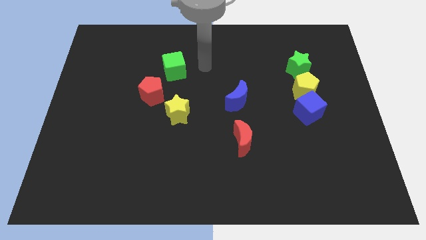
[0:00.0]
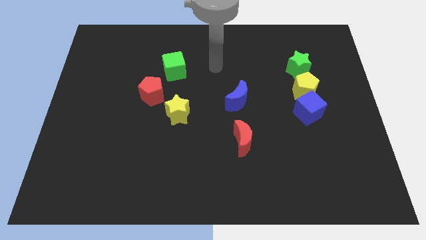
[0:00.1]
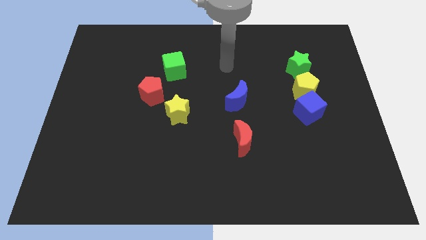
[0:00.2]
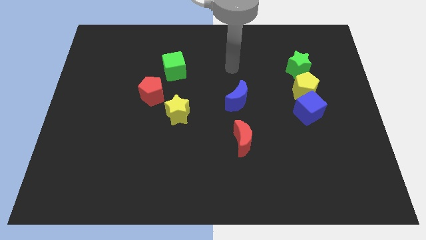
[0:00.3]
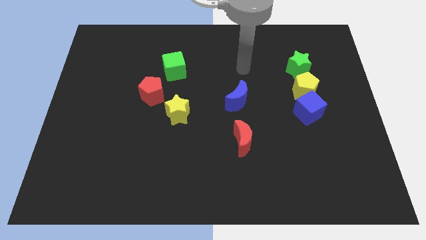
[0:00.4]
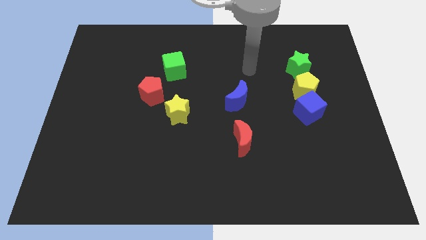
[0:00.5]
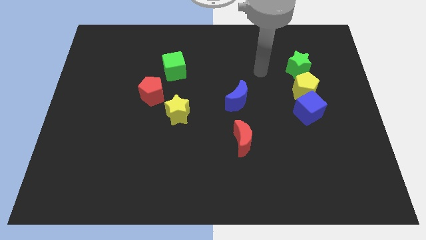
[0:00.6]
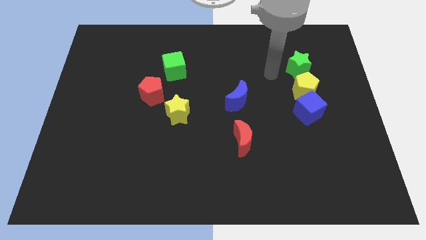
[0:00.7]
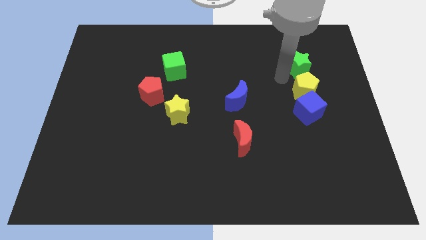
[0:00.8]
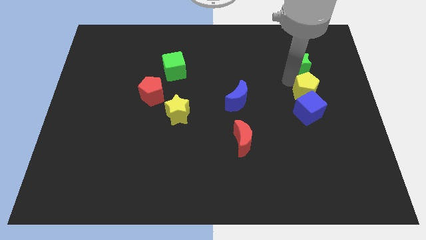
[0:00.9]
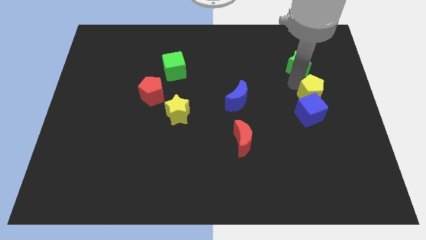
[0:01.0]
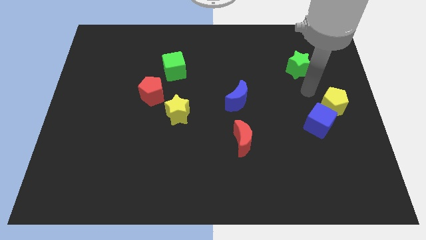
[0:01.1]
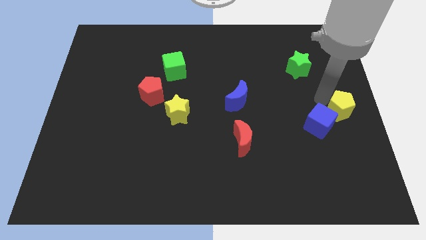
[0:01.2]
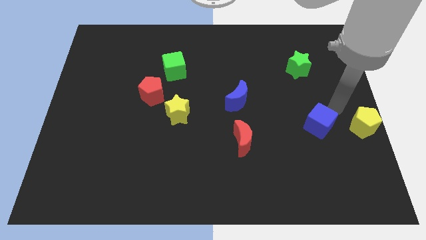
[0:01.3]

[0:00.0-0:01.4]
pull the blue cube apart from the yellow pentagon

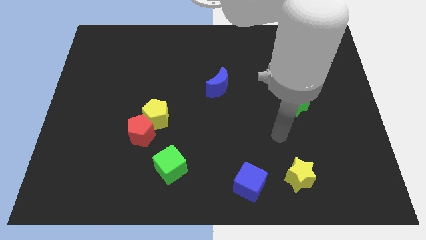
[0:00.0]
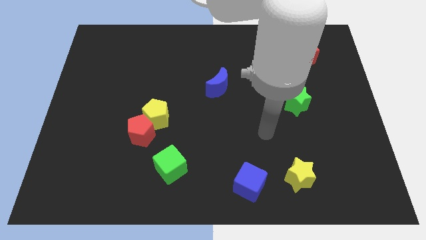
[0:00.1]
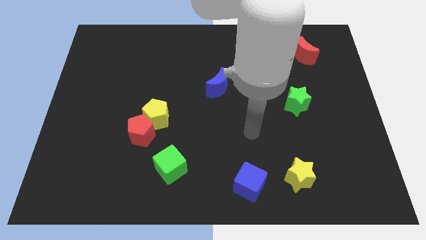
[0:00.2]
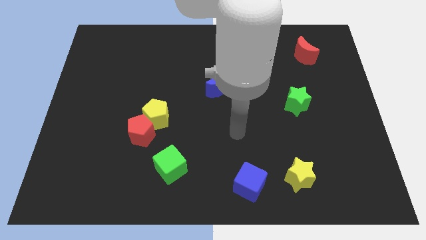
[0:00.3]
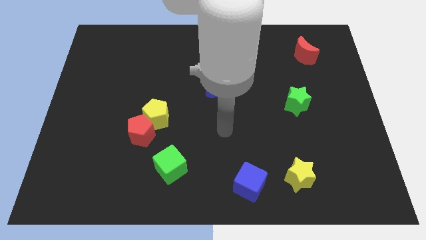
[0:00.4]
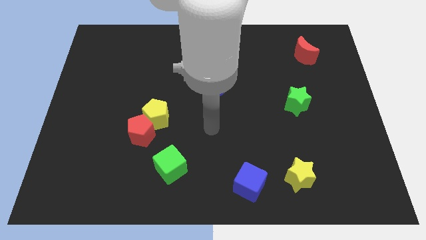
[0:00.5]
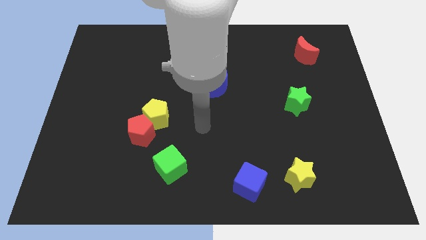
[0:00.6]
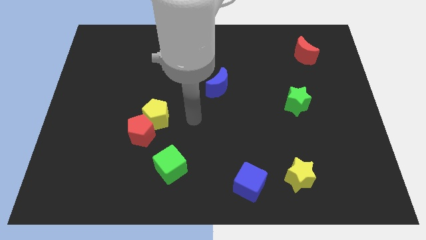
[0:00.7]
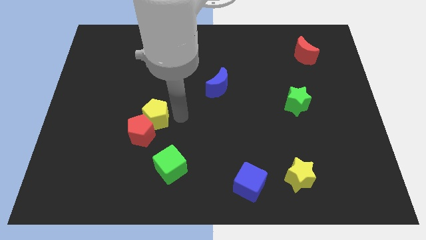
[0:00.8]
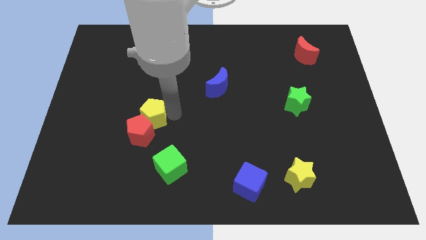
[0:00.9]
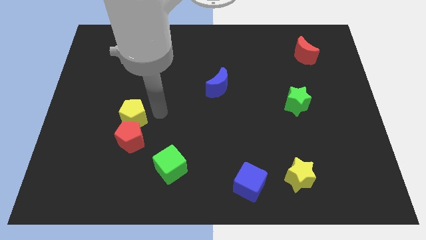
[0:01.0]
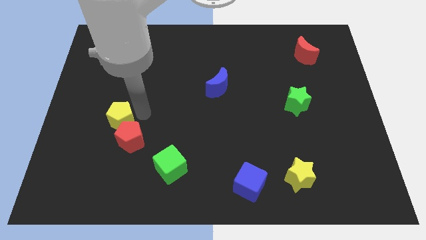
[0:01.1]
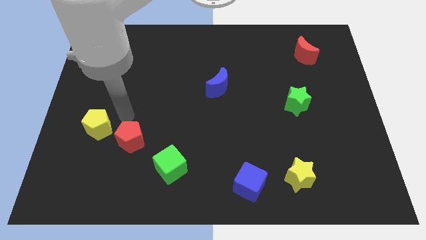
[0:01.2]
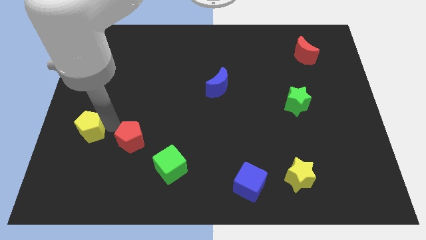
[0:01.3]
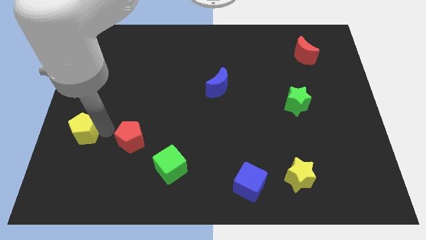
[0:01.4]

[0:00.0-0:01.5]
separate the red pentagon from the yellow pentagon

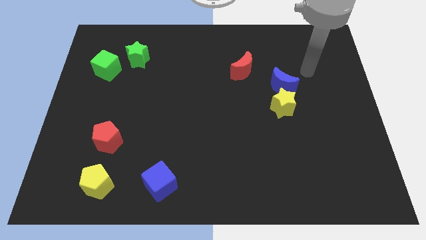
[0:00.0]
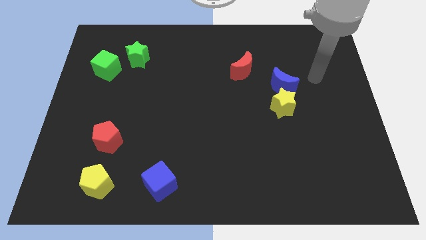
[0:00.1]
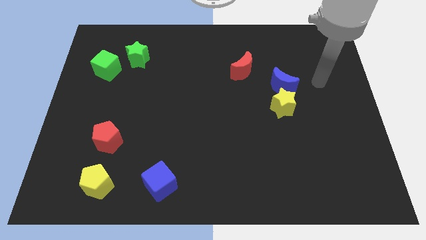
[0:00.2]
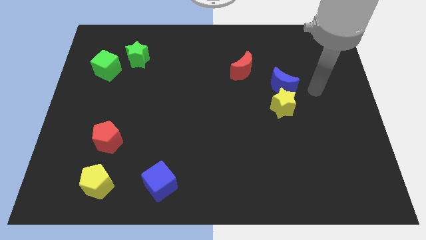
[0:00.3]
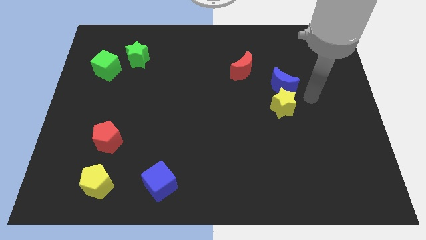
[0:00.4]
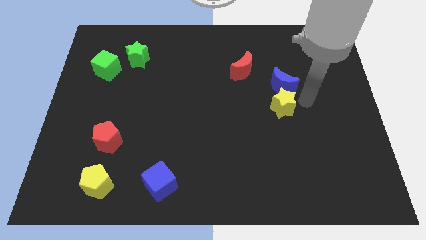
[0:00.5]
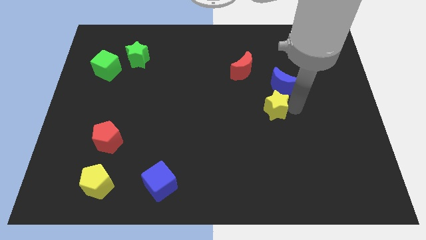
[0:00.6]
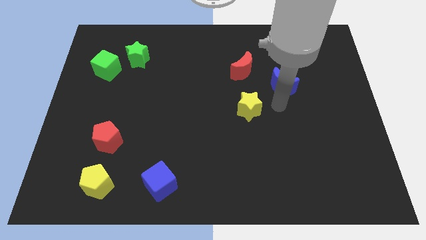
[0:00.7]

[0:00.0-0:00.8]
pull the blue moon apart from the yellow star

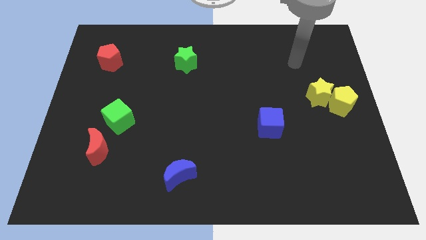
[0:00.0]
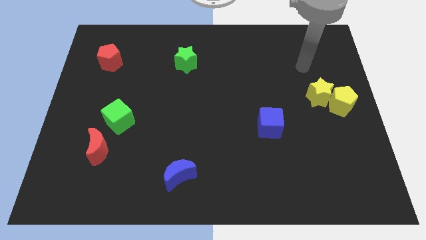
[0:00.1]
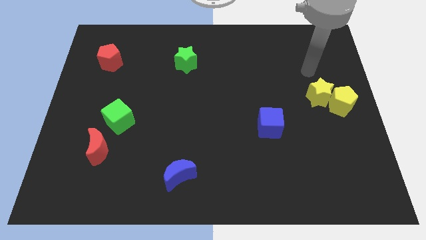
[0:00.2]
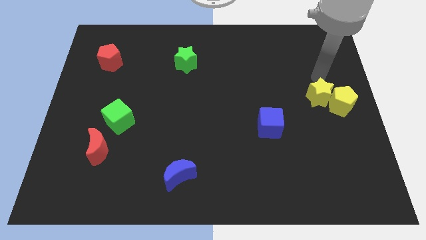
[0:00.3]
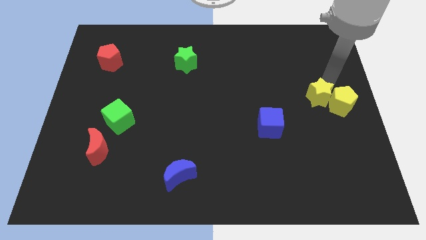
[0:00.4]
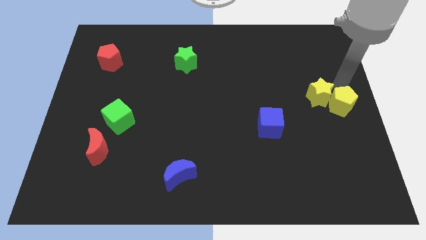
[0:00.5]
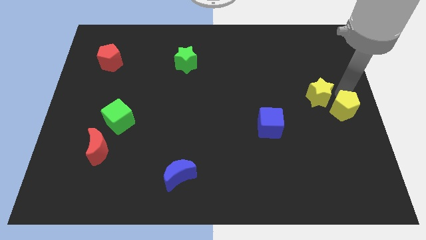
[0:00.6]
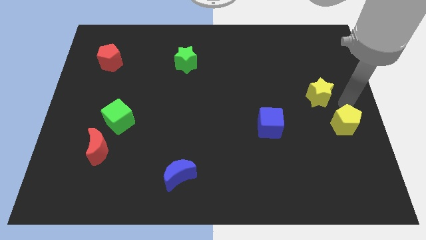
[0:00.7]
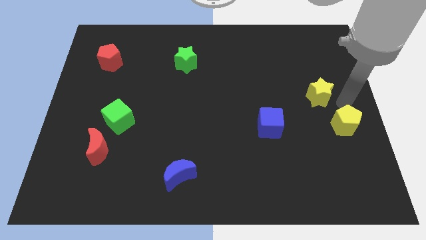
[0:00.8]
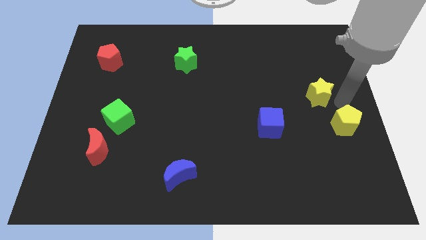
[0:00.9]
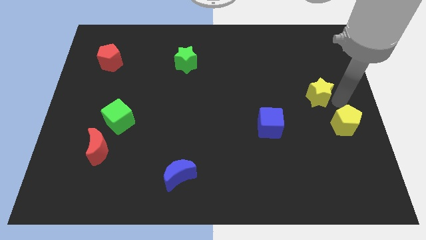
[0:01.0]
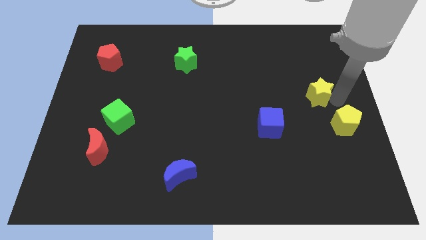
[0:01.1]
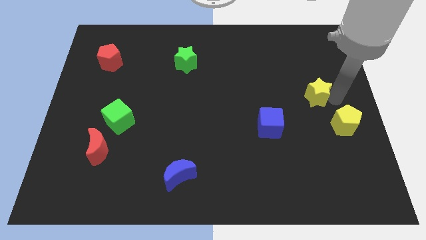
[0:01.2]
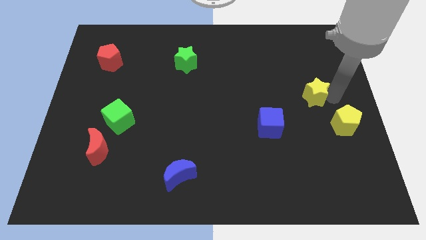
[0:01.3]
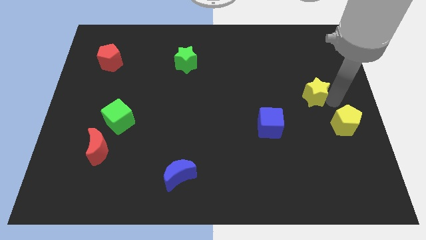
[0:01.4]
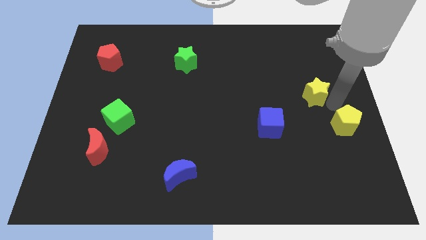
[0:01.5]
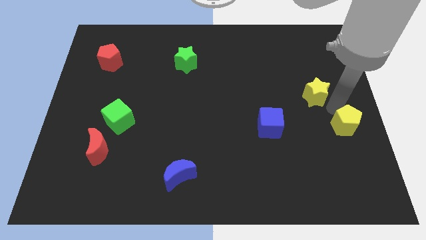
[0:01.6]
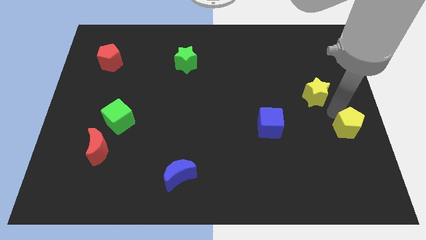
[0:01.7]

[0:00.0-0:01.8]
move the yellow star away from the yellow pentagon

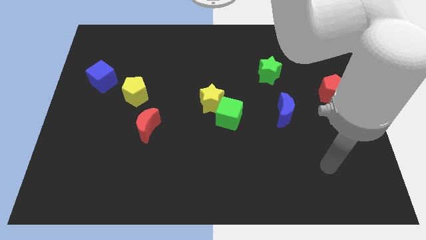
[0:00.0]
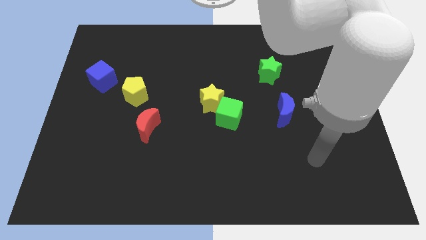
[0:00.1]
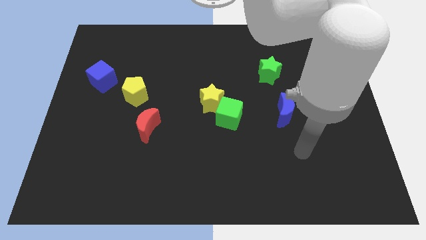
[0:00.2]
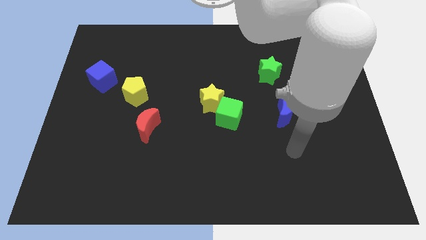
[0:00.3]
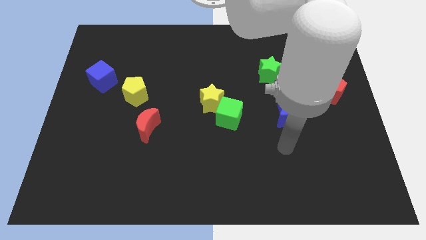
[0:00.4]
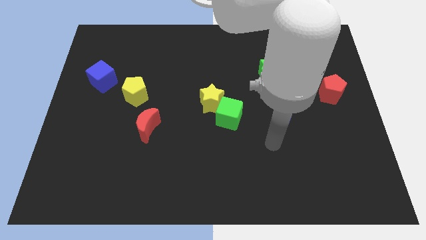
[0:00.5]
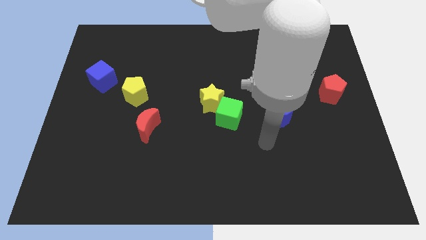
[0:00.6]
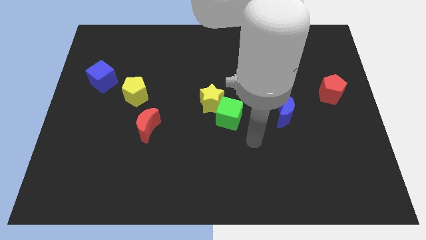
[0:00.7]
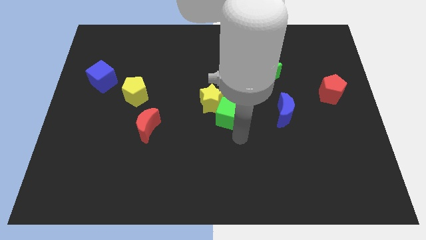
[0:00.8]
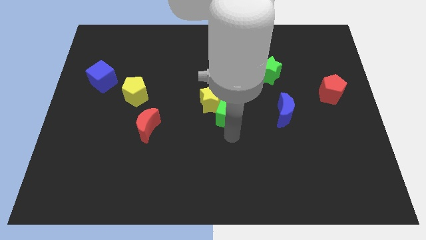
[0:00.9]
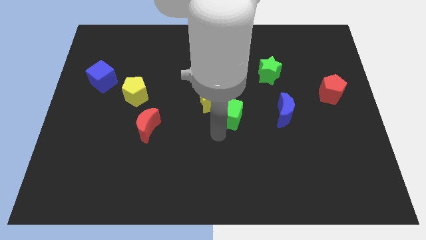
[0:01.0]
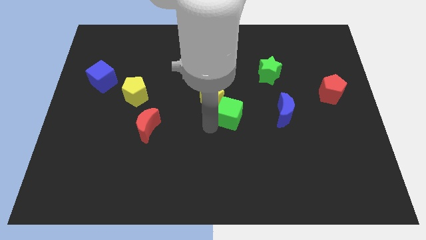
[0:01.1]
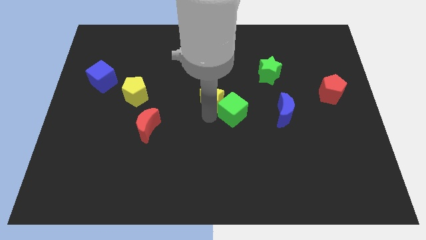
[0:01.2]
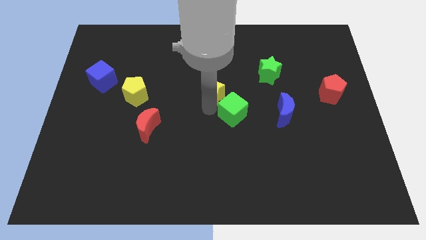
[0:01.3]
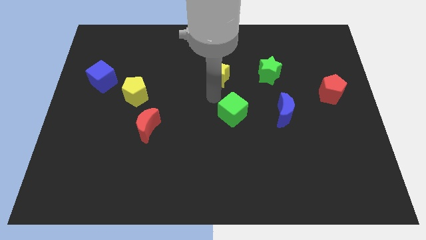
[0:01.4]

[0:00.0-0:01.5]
pull the green cube apart from the yellow star

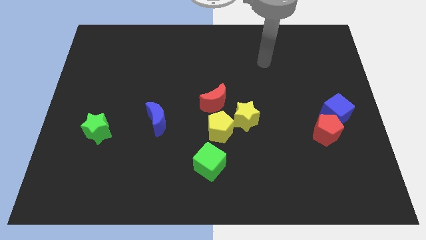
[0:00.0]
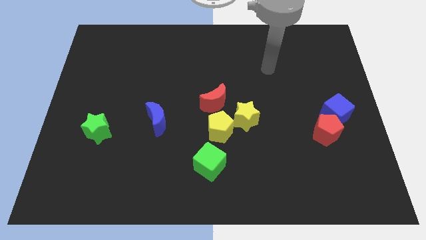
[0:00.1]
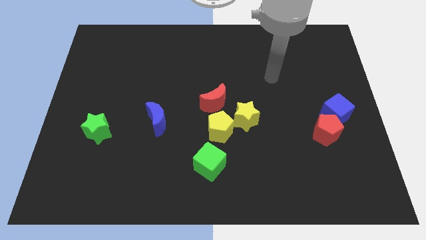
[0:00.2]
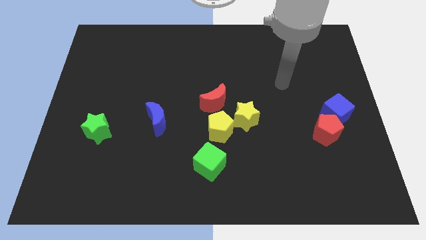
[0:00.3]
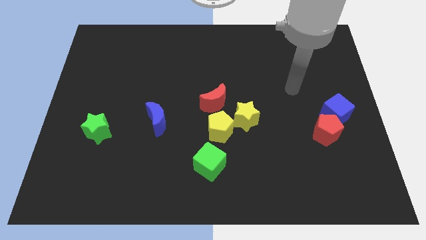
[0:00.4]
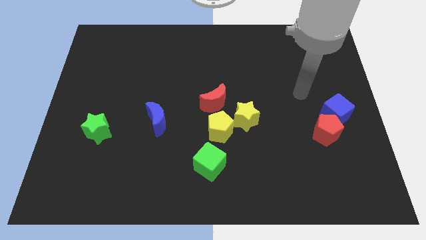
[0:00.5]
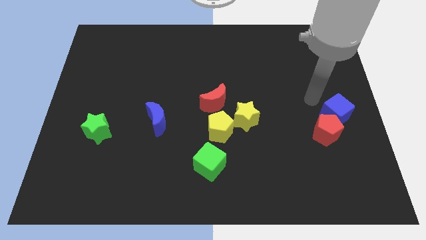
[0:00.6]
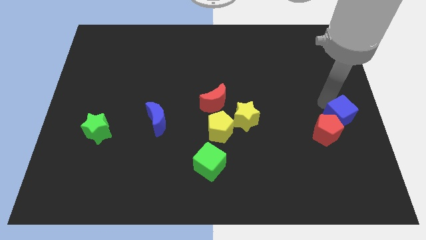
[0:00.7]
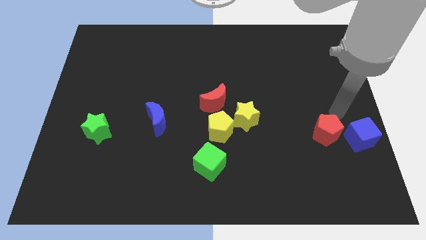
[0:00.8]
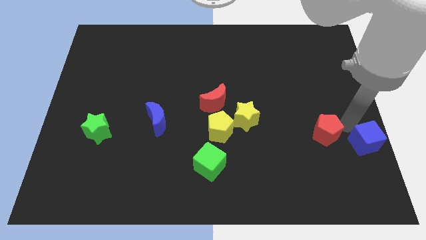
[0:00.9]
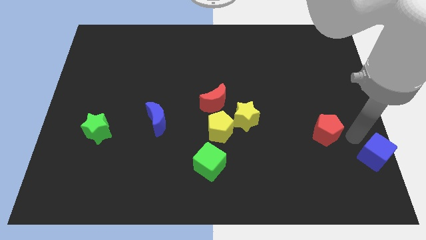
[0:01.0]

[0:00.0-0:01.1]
separate the red pentagon from the blue cube

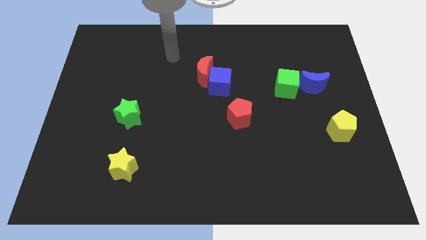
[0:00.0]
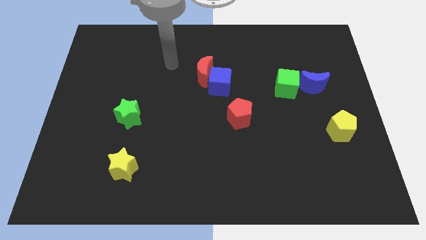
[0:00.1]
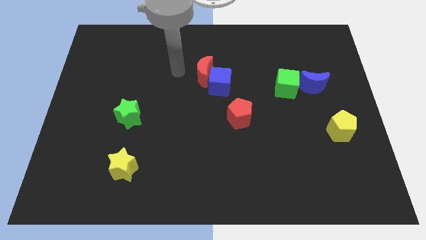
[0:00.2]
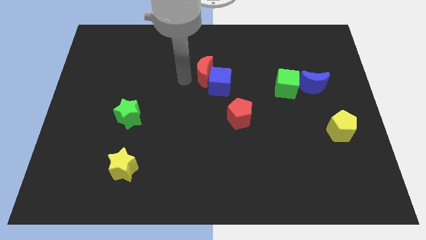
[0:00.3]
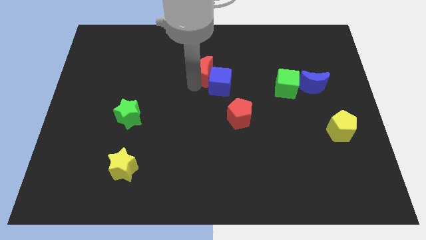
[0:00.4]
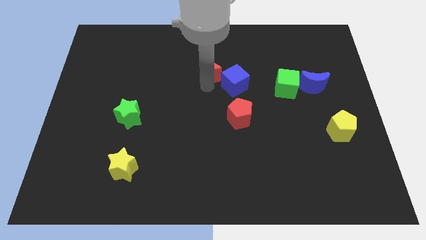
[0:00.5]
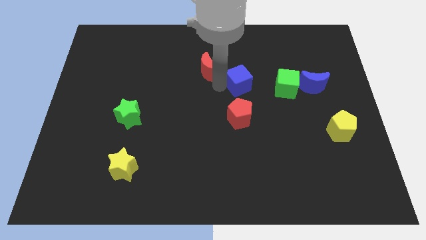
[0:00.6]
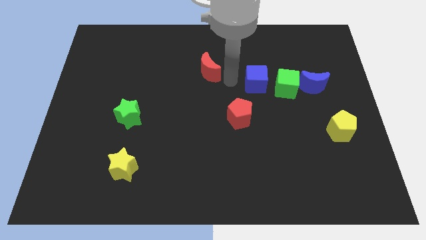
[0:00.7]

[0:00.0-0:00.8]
move the red moon away from the blue cube

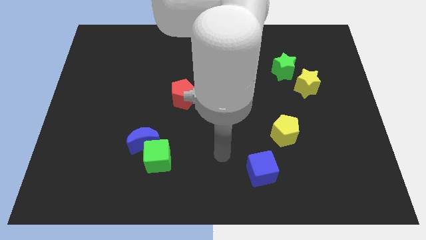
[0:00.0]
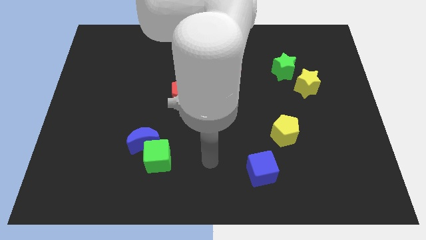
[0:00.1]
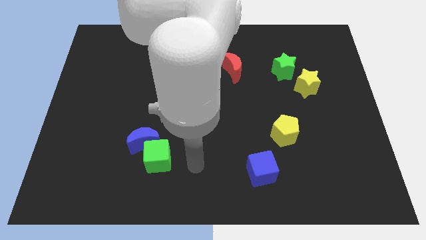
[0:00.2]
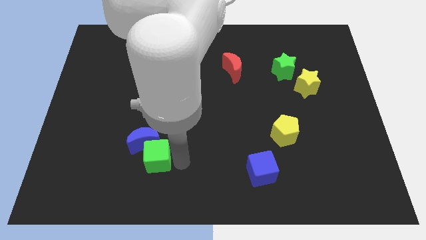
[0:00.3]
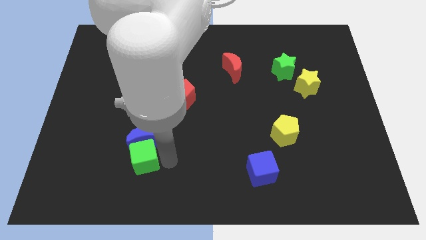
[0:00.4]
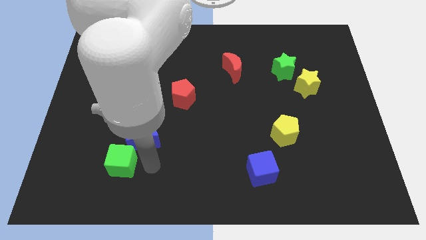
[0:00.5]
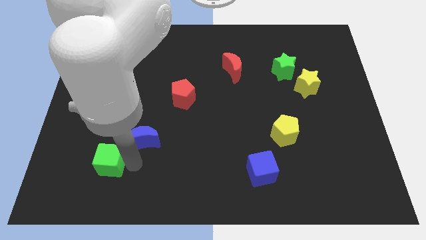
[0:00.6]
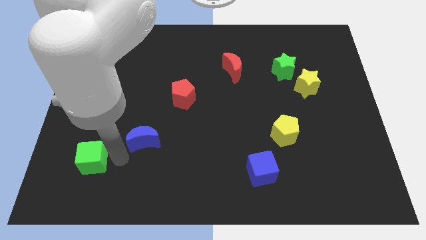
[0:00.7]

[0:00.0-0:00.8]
move the blue moon away from the green cube
